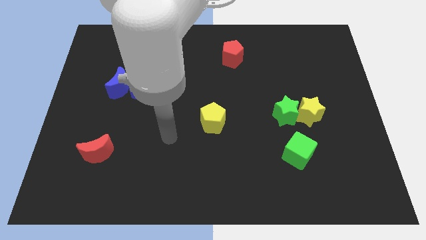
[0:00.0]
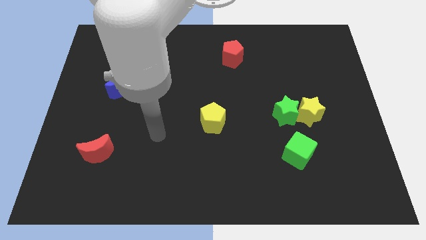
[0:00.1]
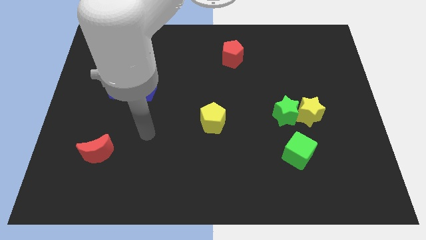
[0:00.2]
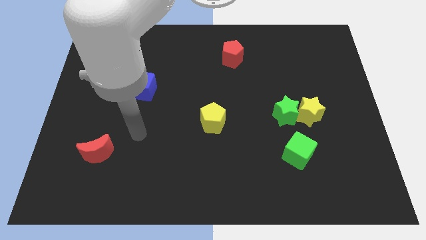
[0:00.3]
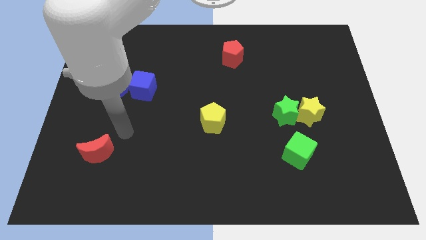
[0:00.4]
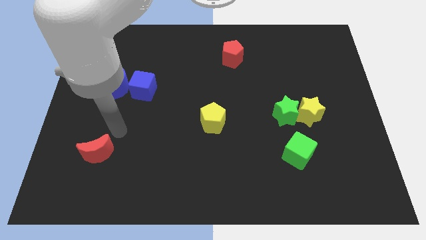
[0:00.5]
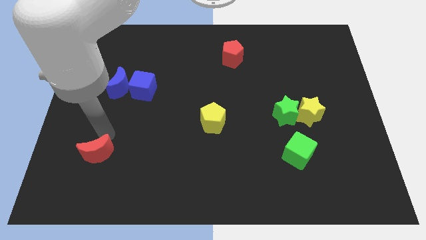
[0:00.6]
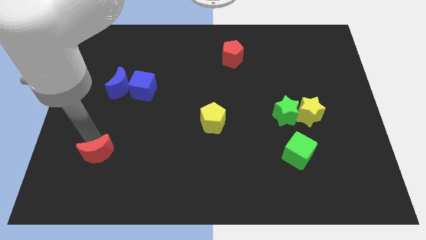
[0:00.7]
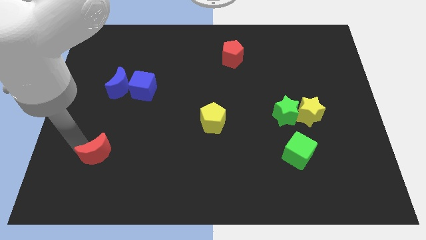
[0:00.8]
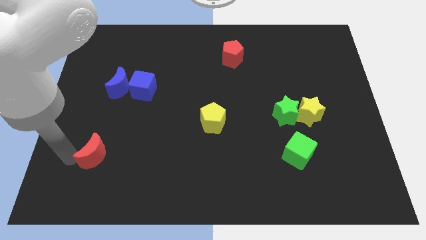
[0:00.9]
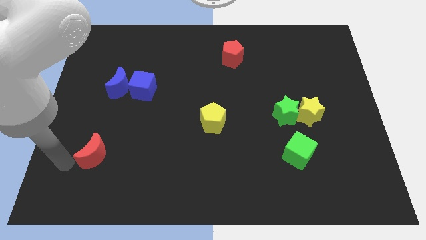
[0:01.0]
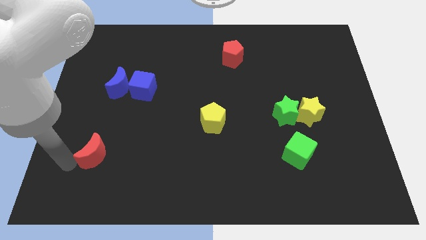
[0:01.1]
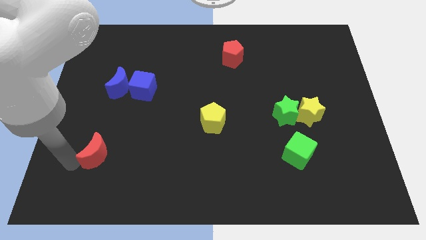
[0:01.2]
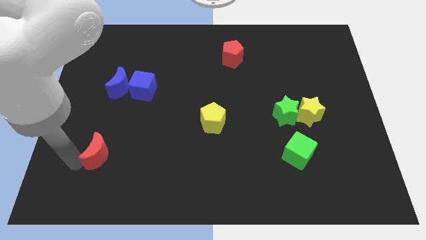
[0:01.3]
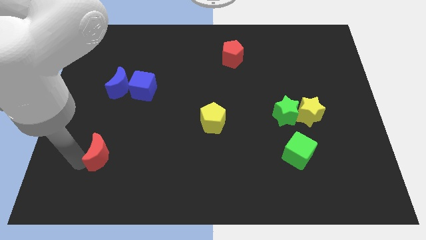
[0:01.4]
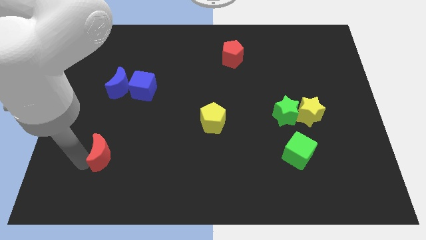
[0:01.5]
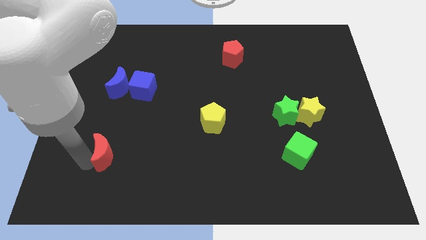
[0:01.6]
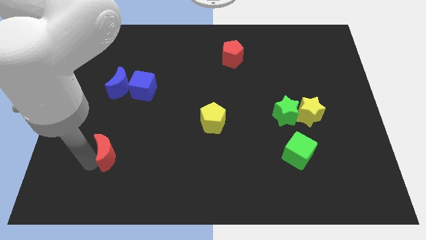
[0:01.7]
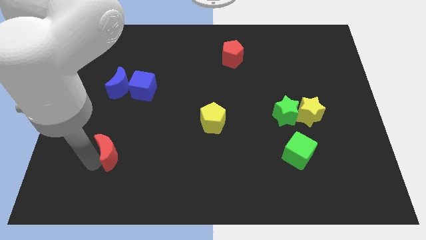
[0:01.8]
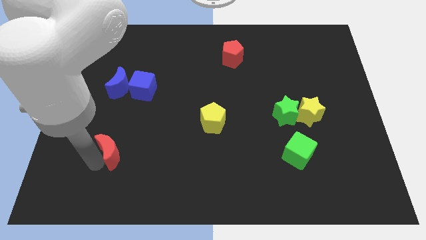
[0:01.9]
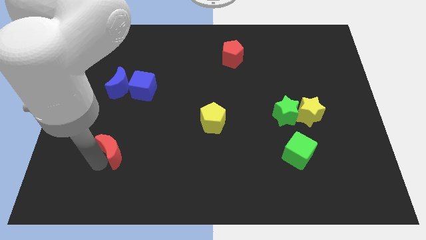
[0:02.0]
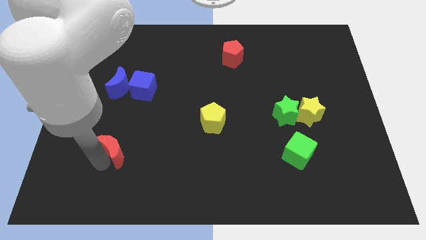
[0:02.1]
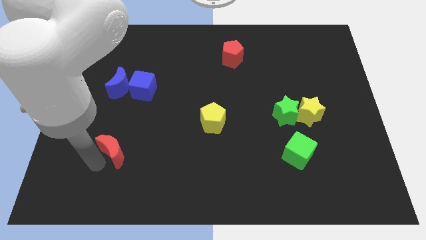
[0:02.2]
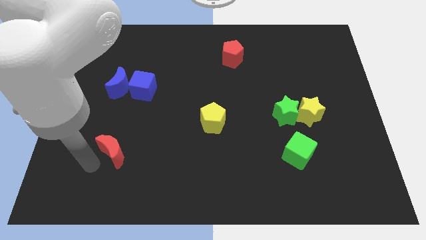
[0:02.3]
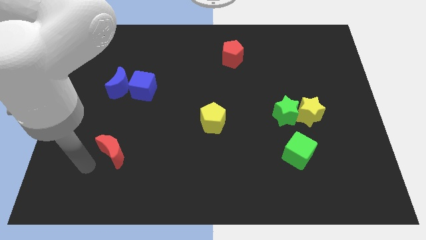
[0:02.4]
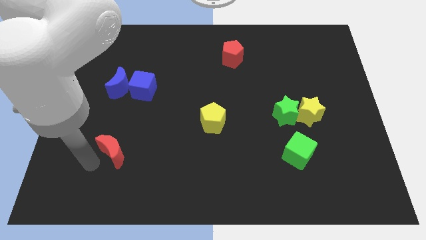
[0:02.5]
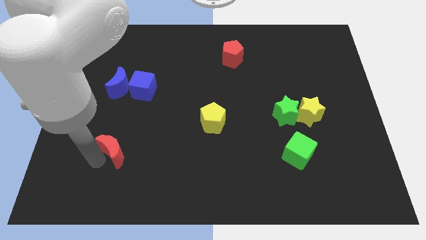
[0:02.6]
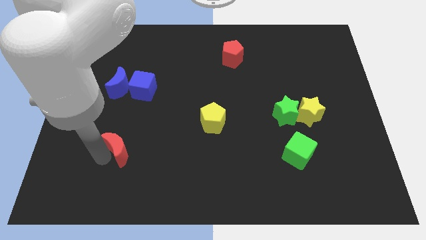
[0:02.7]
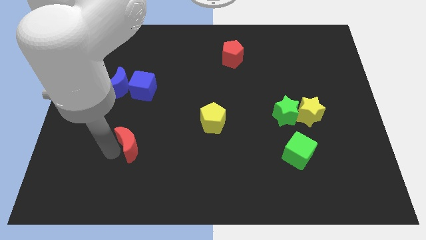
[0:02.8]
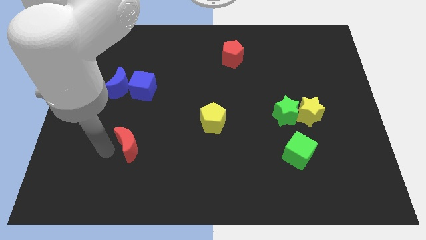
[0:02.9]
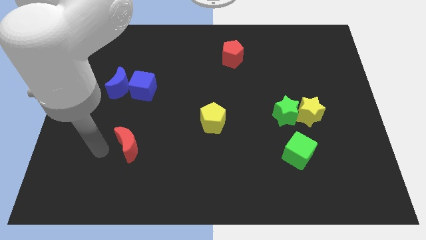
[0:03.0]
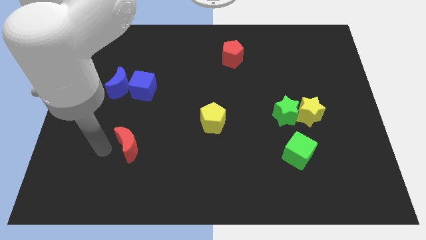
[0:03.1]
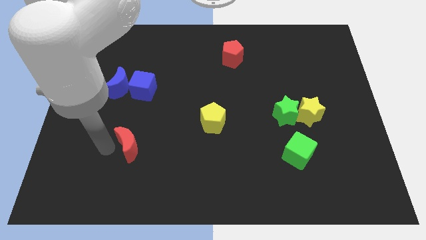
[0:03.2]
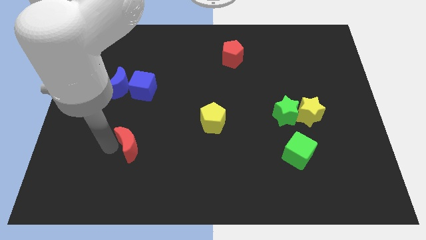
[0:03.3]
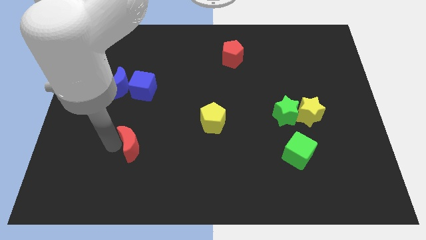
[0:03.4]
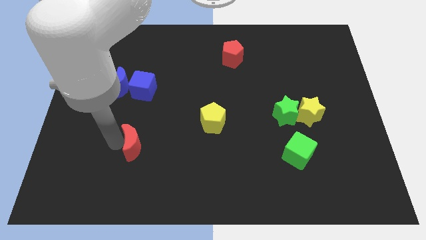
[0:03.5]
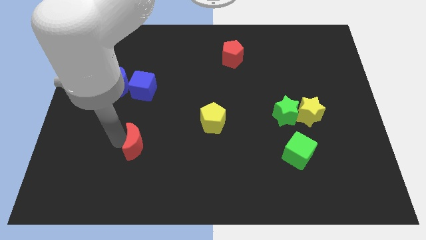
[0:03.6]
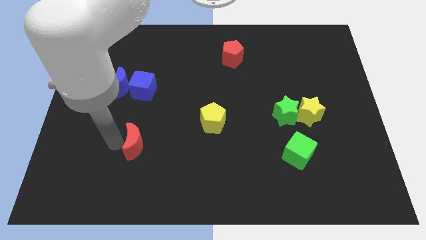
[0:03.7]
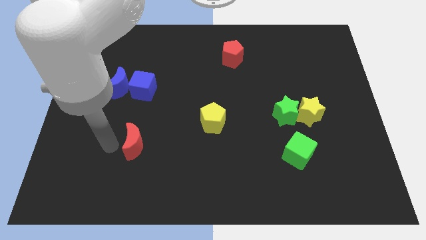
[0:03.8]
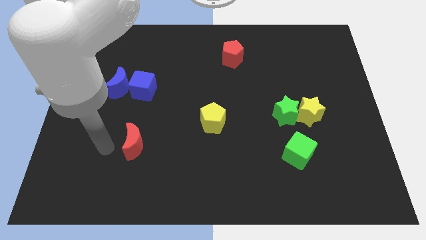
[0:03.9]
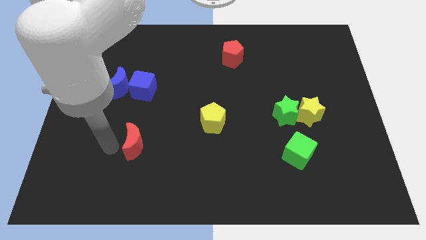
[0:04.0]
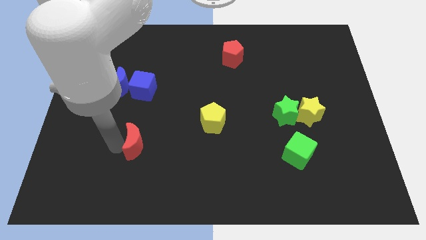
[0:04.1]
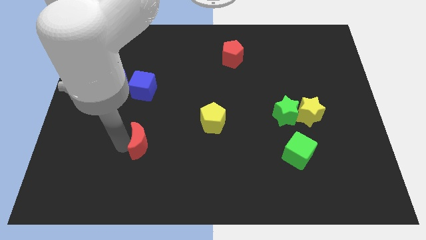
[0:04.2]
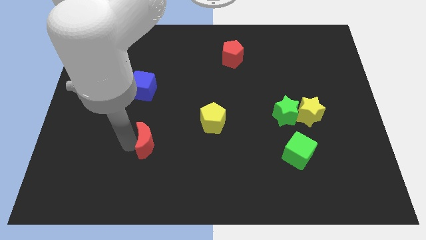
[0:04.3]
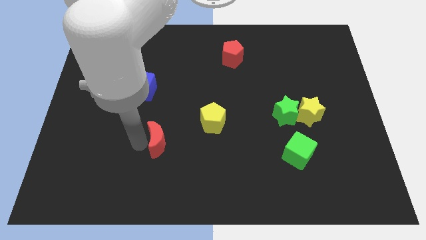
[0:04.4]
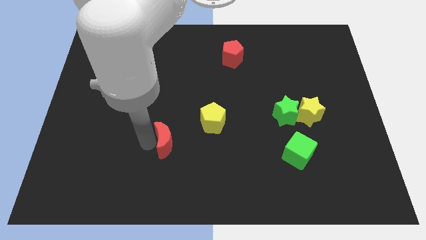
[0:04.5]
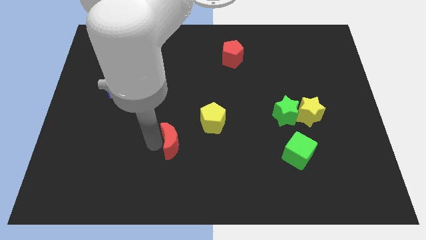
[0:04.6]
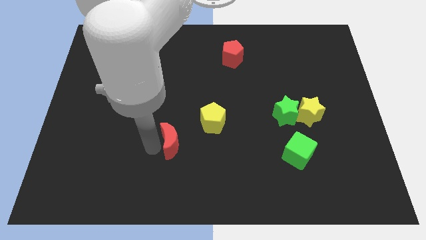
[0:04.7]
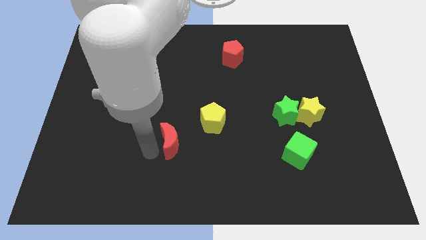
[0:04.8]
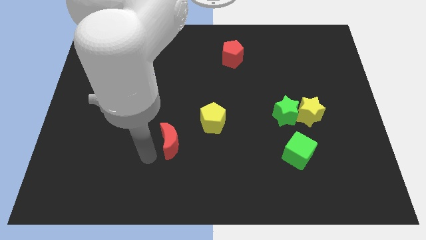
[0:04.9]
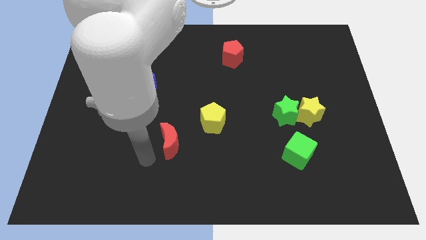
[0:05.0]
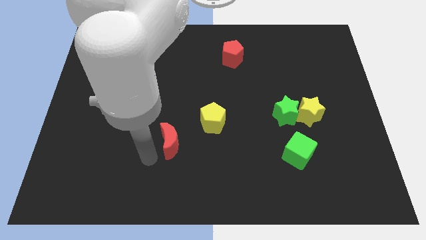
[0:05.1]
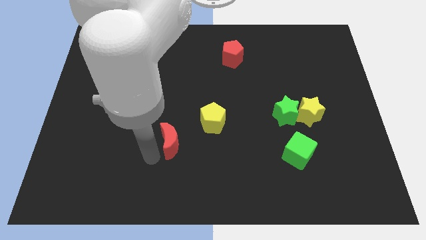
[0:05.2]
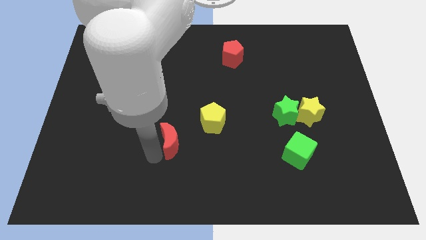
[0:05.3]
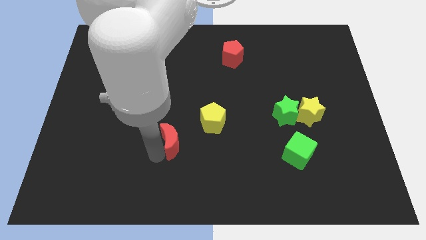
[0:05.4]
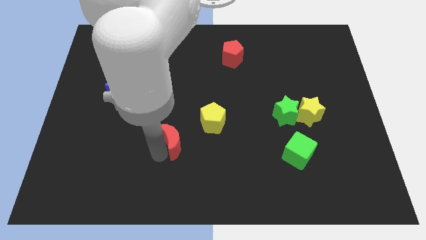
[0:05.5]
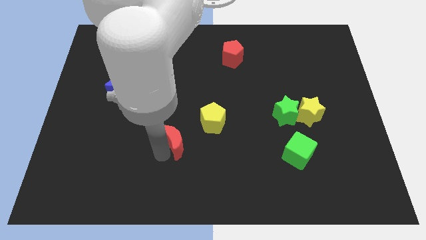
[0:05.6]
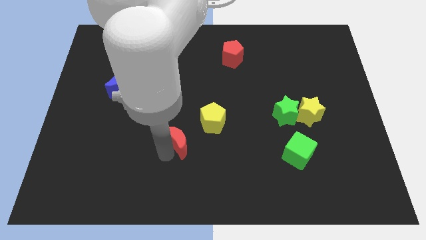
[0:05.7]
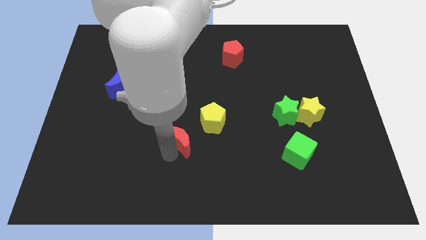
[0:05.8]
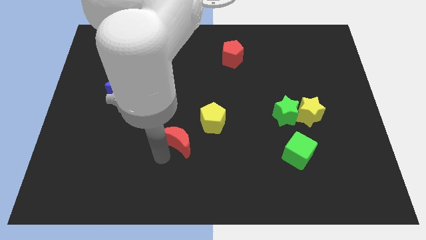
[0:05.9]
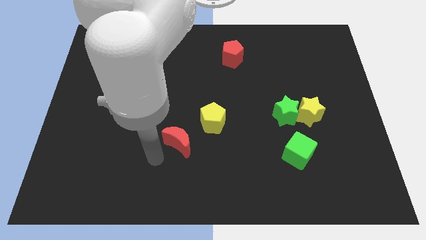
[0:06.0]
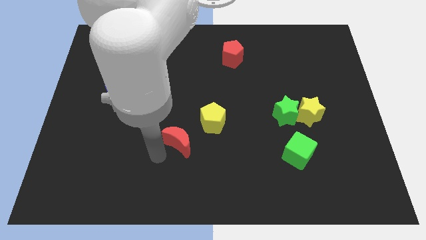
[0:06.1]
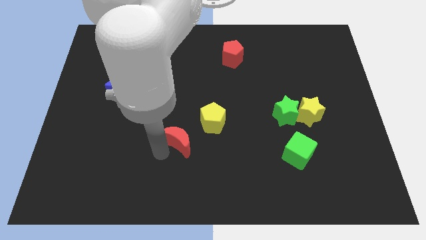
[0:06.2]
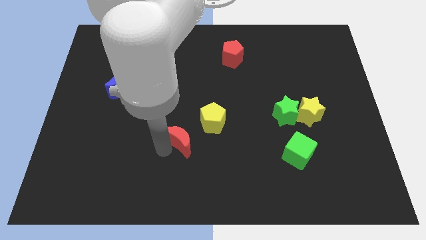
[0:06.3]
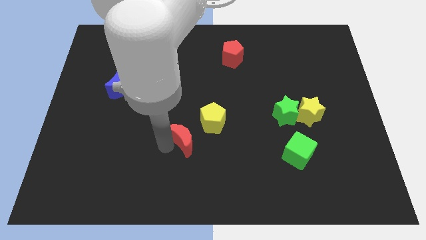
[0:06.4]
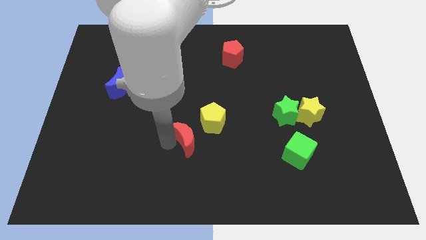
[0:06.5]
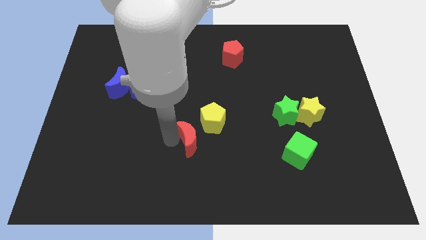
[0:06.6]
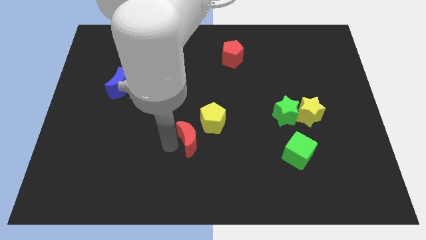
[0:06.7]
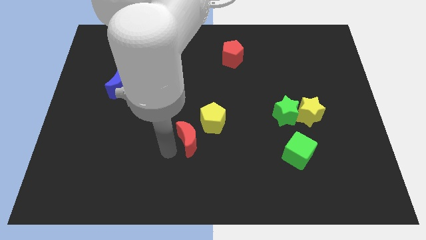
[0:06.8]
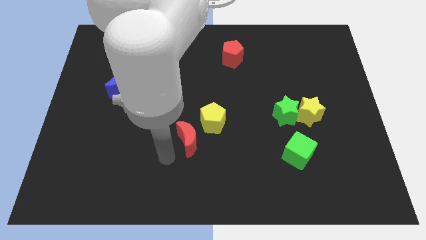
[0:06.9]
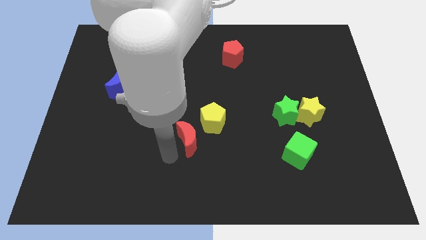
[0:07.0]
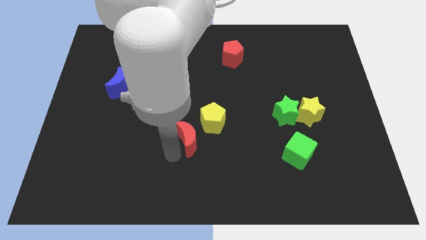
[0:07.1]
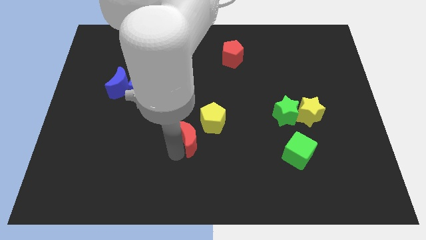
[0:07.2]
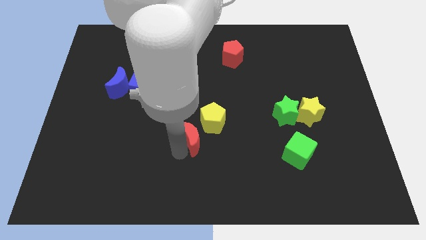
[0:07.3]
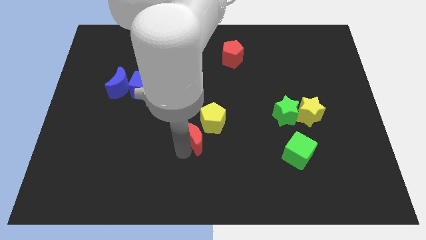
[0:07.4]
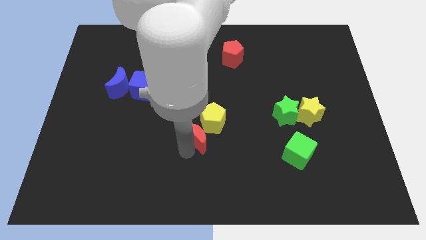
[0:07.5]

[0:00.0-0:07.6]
put the red moon next to the yellow pentagon
